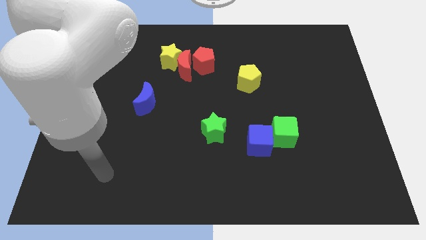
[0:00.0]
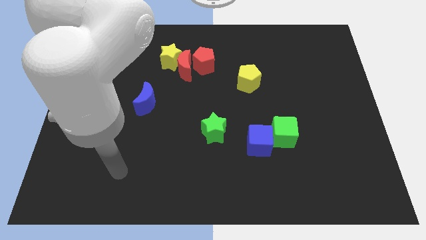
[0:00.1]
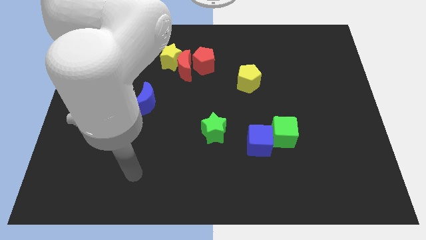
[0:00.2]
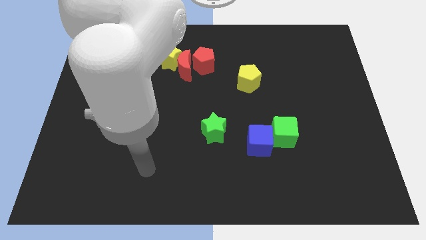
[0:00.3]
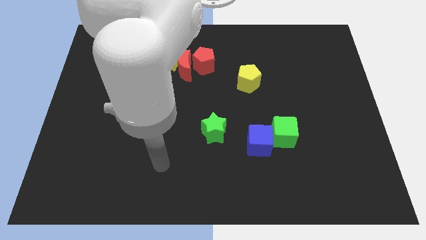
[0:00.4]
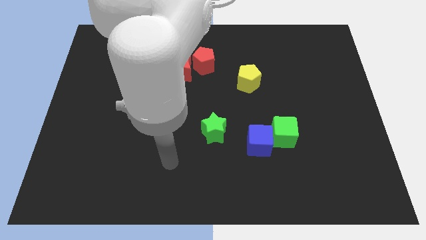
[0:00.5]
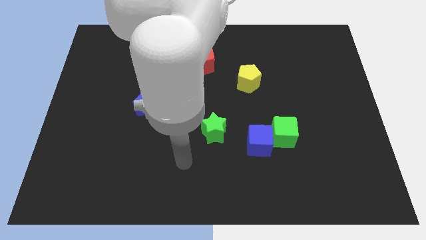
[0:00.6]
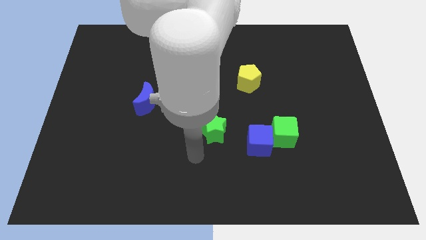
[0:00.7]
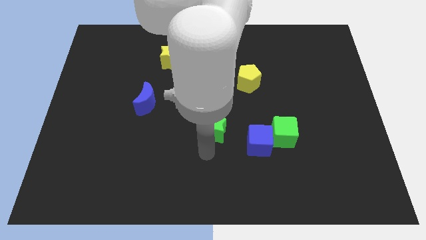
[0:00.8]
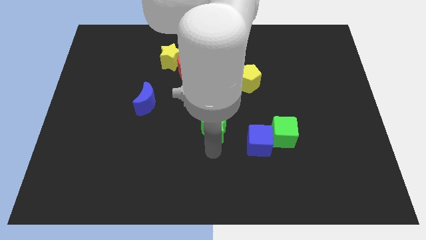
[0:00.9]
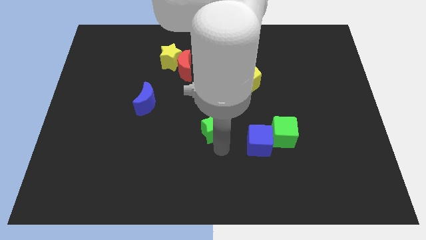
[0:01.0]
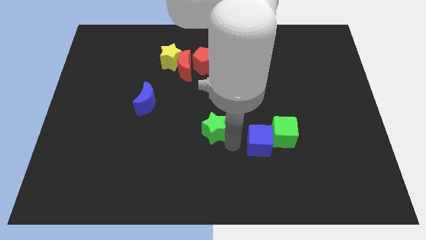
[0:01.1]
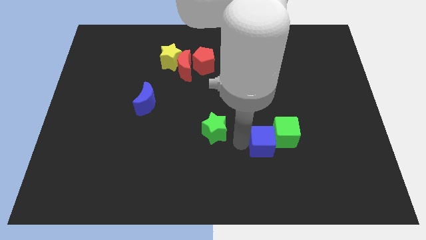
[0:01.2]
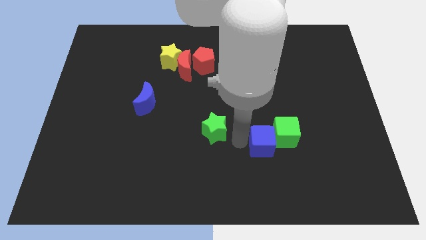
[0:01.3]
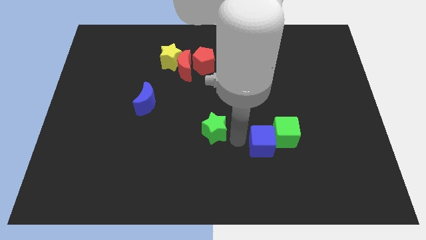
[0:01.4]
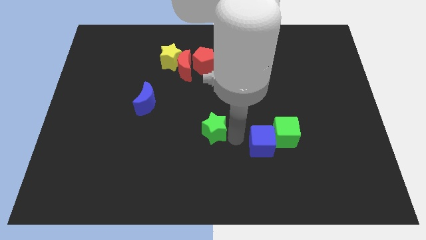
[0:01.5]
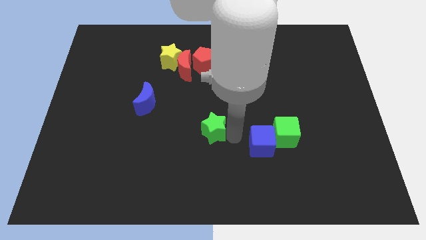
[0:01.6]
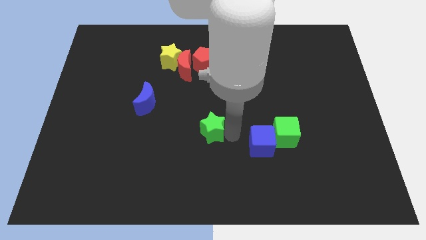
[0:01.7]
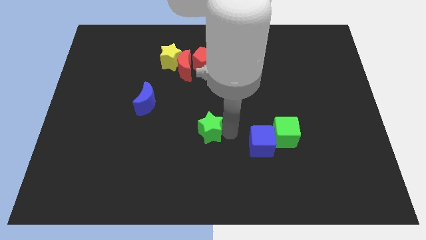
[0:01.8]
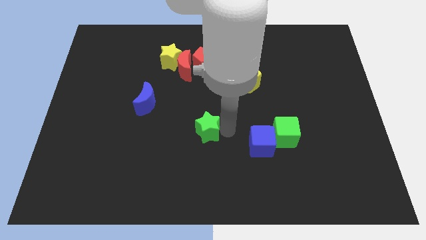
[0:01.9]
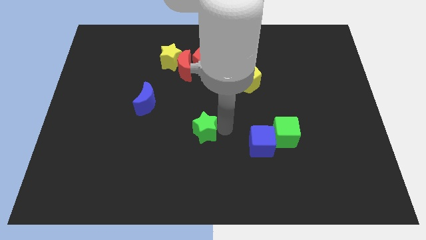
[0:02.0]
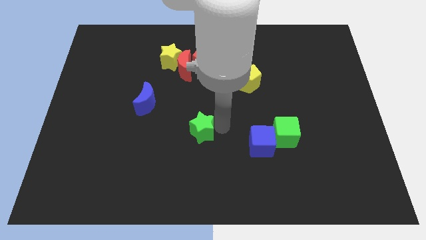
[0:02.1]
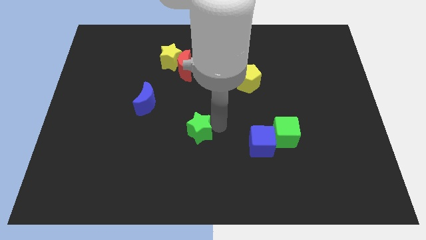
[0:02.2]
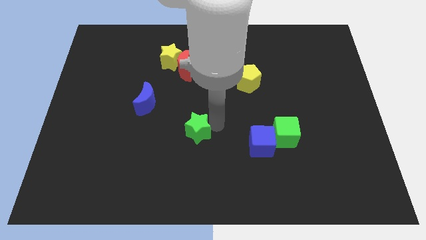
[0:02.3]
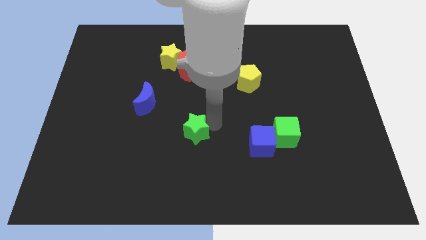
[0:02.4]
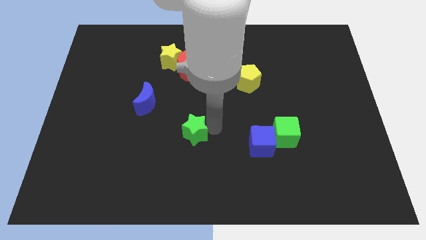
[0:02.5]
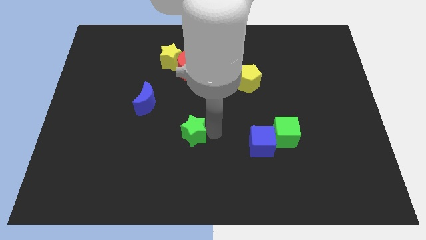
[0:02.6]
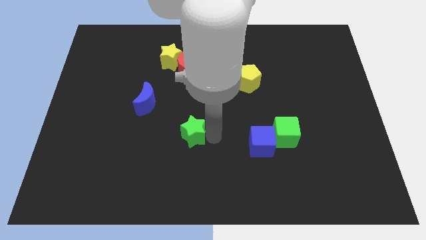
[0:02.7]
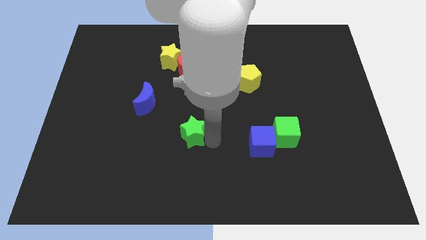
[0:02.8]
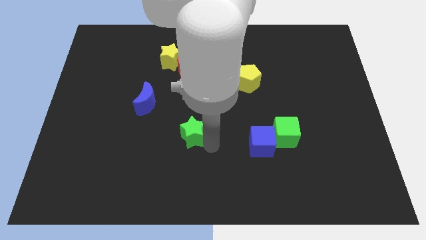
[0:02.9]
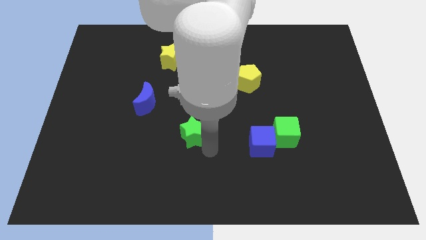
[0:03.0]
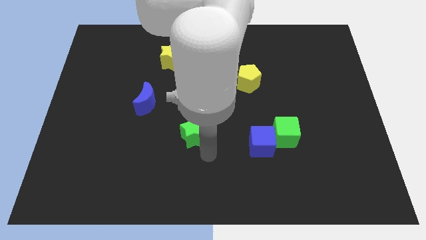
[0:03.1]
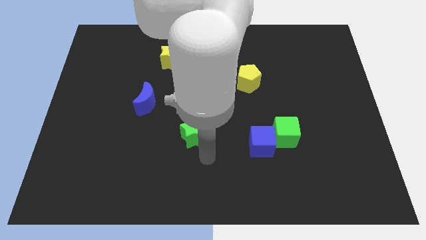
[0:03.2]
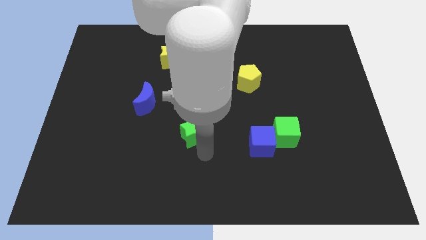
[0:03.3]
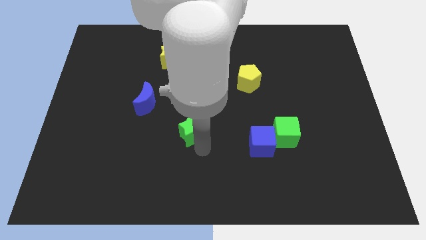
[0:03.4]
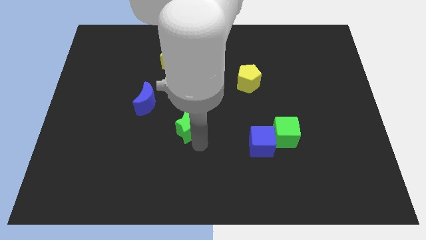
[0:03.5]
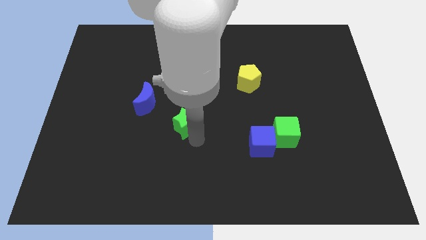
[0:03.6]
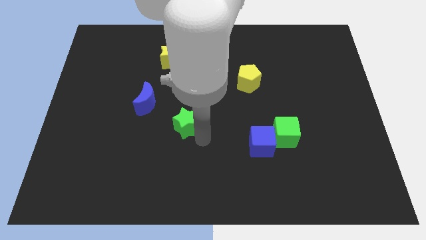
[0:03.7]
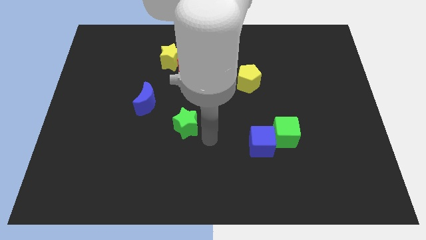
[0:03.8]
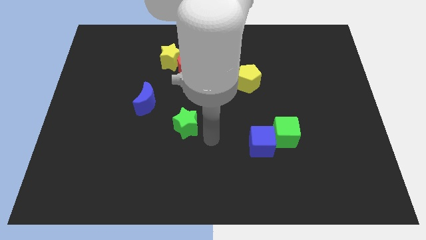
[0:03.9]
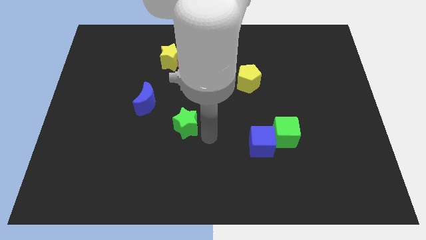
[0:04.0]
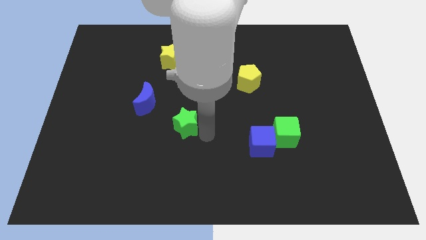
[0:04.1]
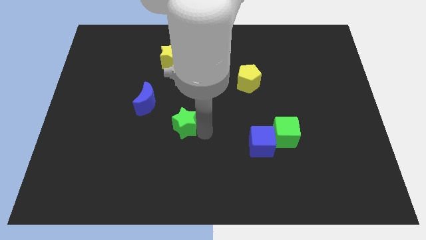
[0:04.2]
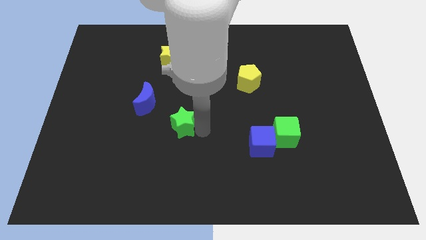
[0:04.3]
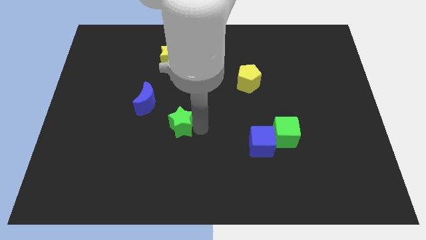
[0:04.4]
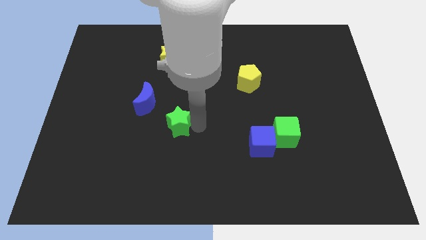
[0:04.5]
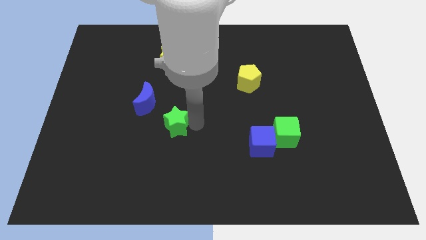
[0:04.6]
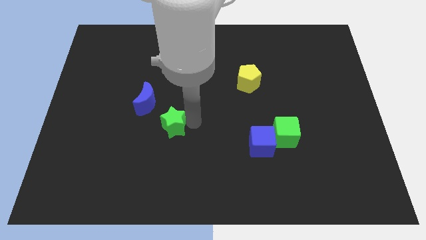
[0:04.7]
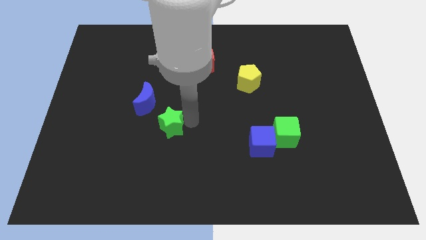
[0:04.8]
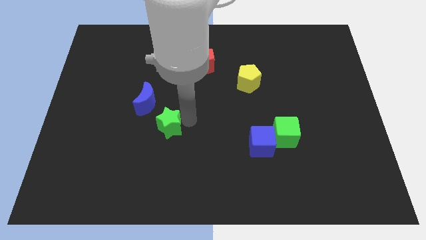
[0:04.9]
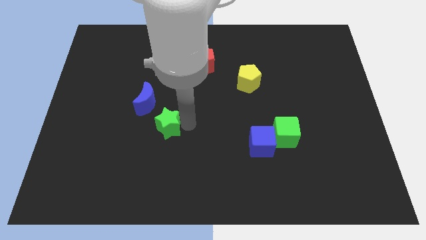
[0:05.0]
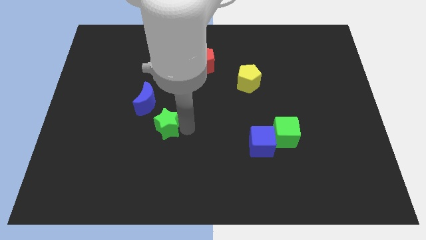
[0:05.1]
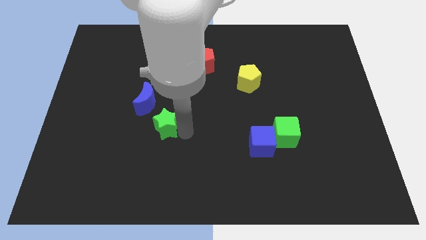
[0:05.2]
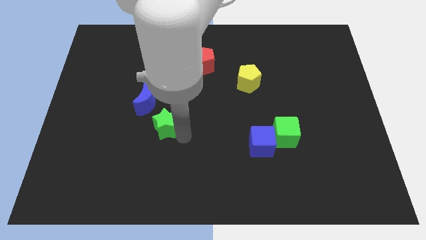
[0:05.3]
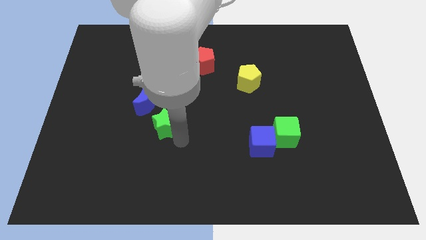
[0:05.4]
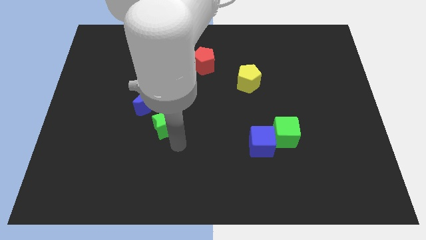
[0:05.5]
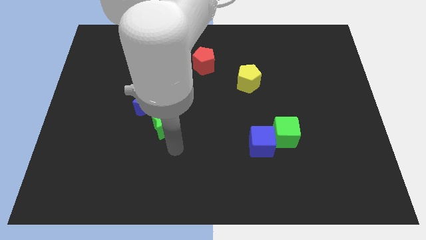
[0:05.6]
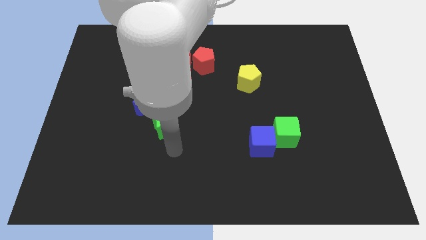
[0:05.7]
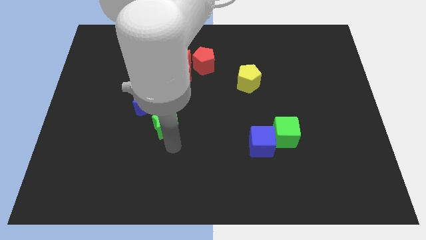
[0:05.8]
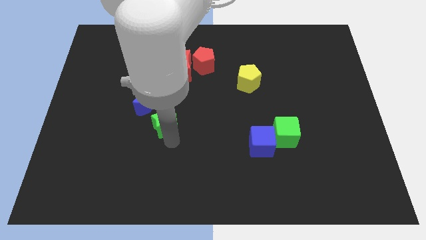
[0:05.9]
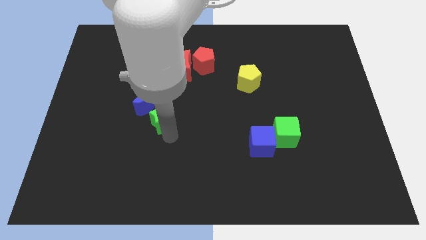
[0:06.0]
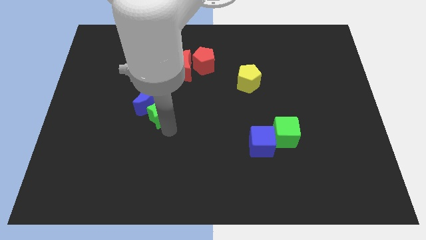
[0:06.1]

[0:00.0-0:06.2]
put the green star towards the blue moon

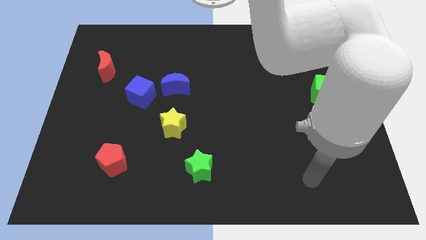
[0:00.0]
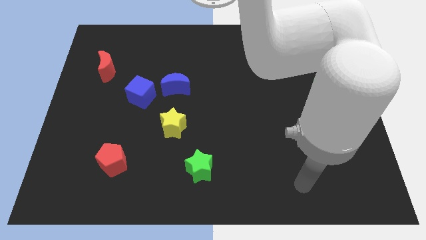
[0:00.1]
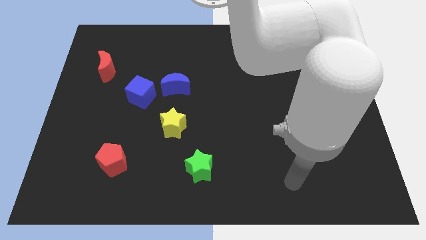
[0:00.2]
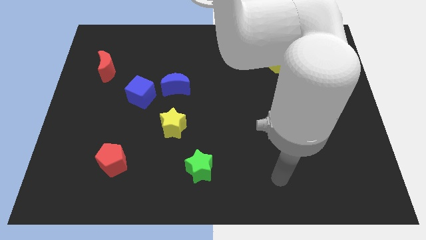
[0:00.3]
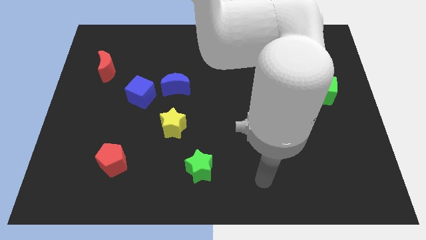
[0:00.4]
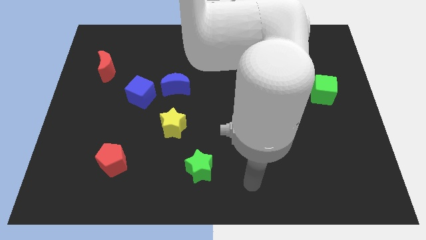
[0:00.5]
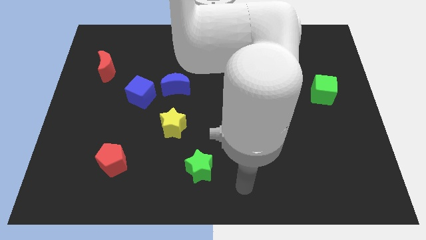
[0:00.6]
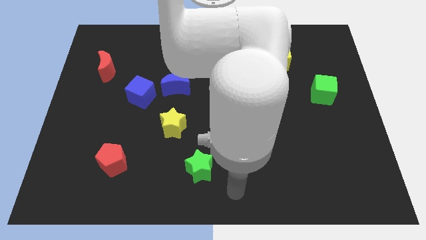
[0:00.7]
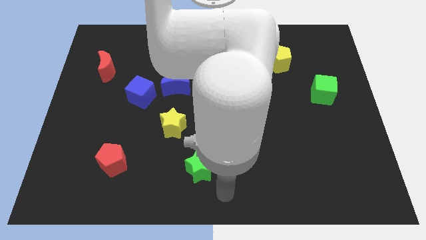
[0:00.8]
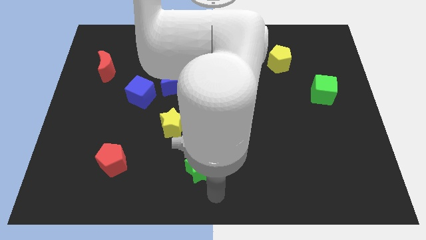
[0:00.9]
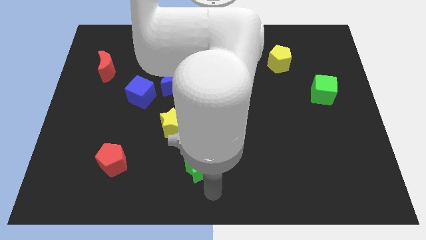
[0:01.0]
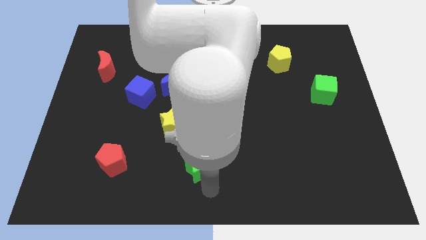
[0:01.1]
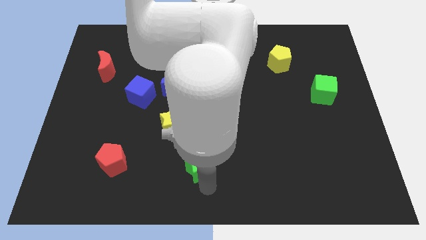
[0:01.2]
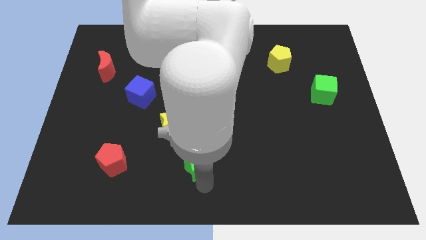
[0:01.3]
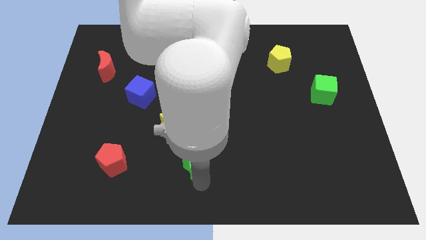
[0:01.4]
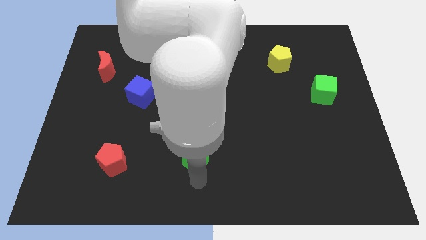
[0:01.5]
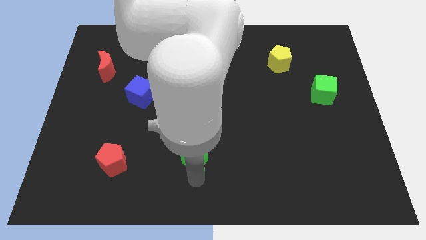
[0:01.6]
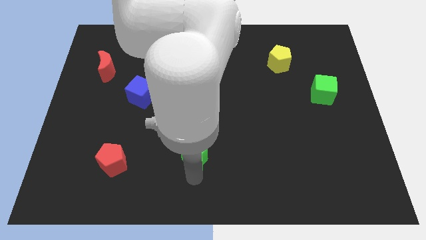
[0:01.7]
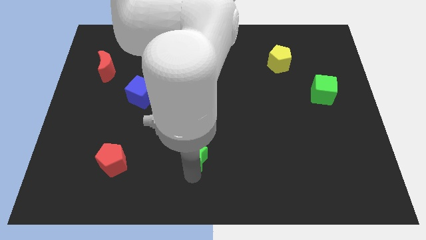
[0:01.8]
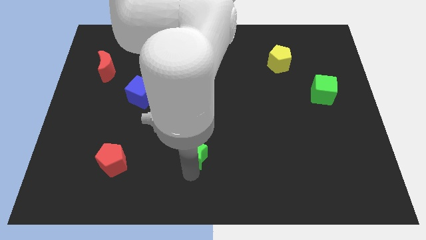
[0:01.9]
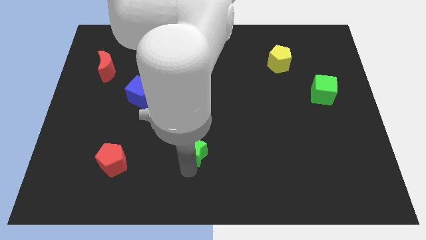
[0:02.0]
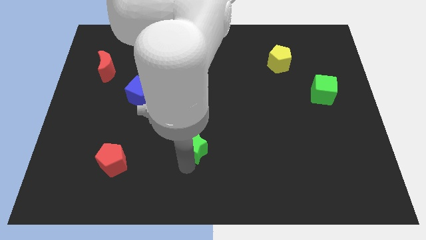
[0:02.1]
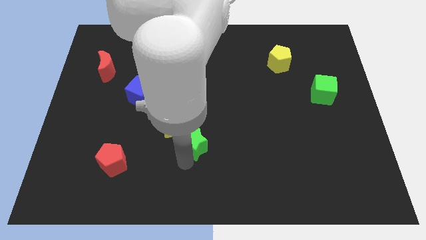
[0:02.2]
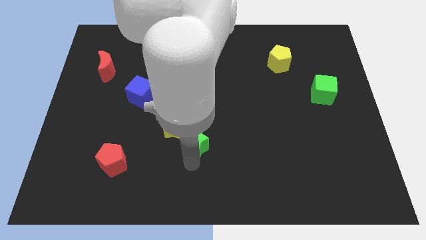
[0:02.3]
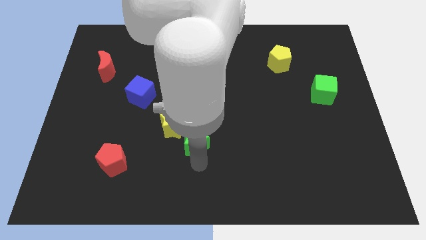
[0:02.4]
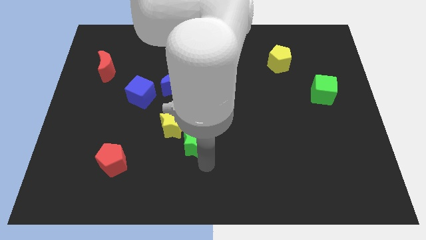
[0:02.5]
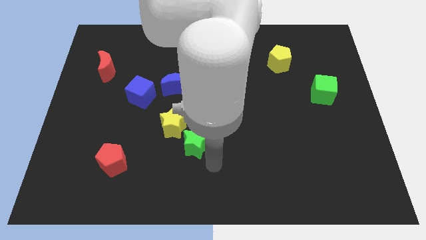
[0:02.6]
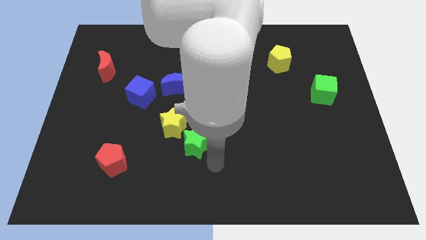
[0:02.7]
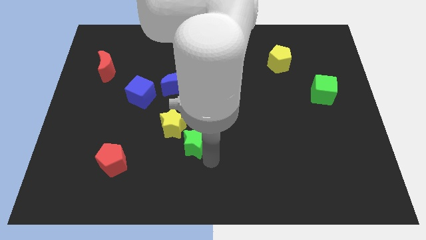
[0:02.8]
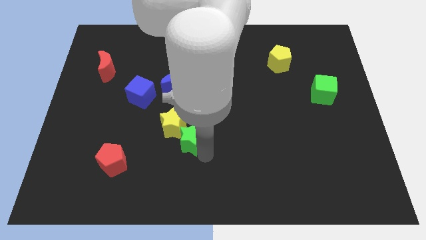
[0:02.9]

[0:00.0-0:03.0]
slide the green star next to the yellow star
